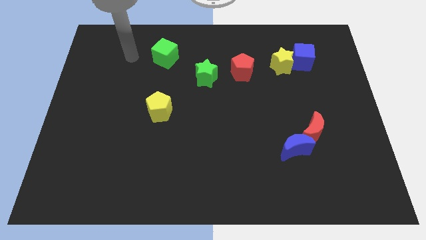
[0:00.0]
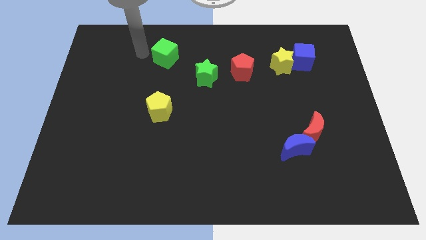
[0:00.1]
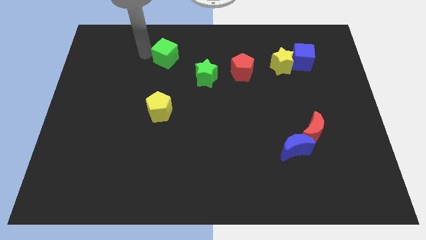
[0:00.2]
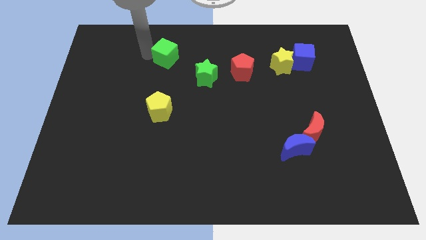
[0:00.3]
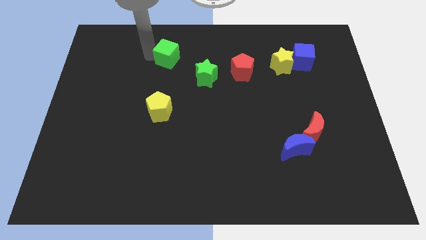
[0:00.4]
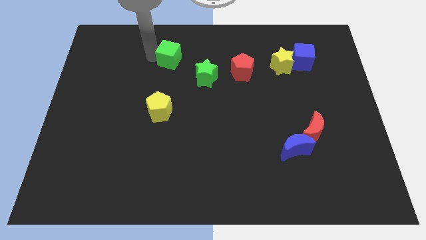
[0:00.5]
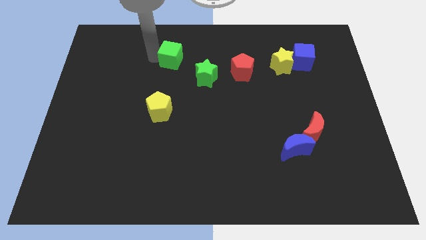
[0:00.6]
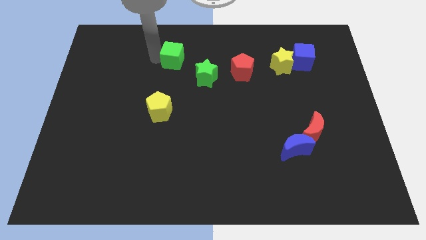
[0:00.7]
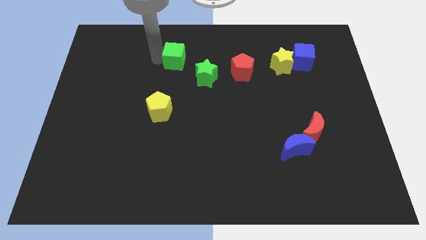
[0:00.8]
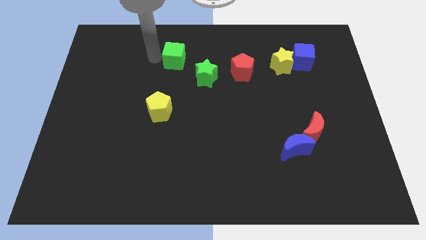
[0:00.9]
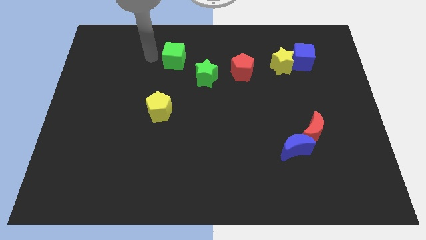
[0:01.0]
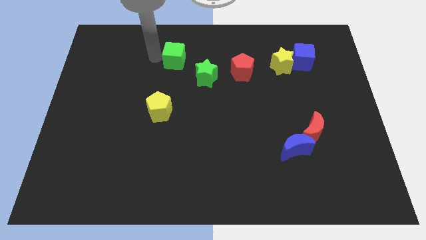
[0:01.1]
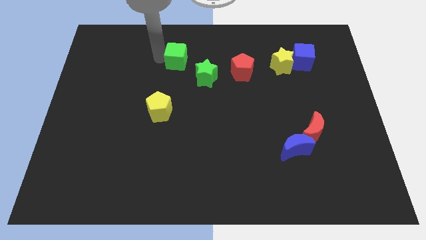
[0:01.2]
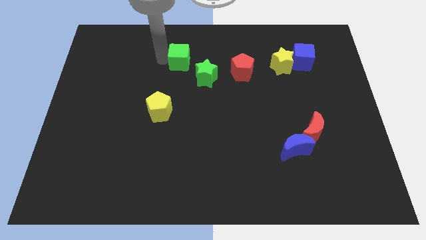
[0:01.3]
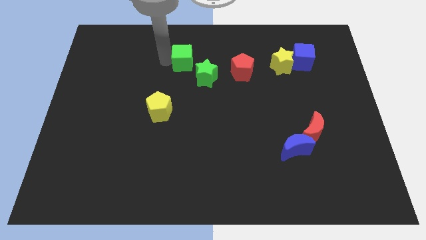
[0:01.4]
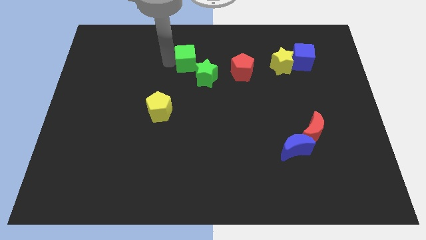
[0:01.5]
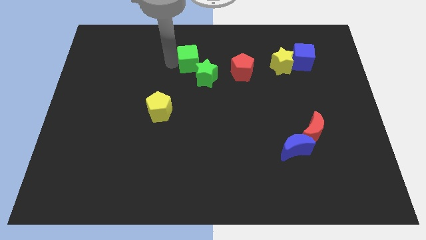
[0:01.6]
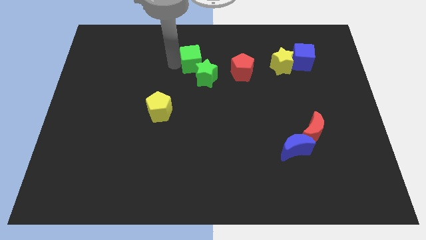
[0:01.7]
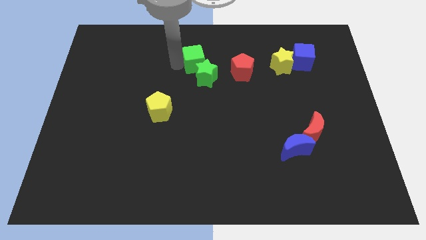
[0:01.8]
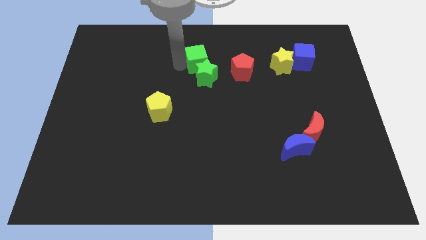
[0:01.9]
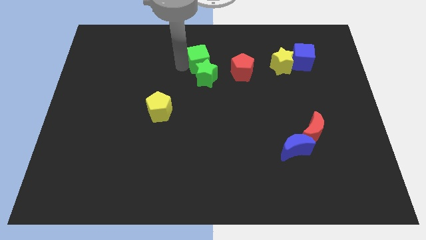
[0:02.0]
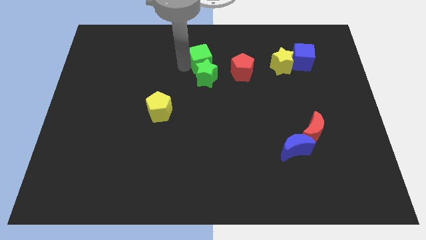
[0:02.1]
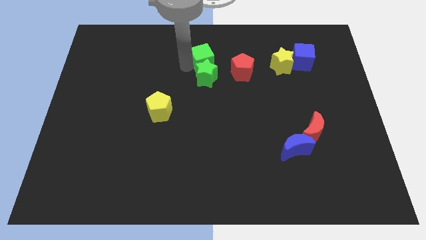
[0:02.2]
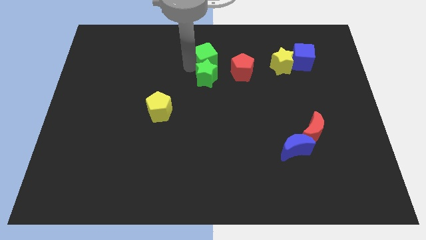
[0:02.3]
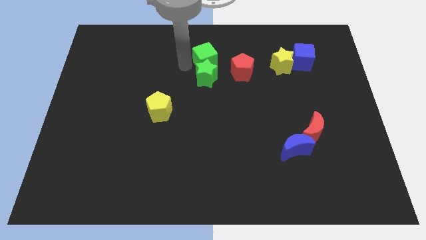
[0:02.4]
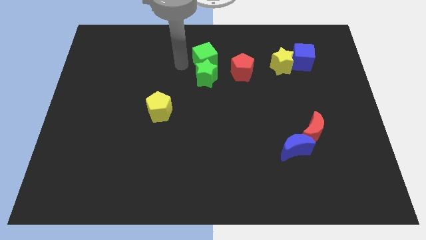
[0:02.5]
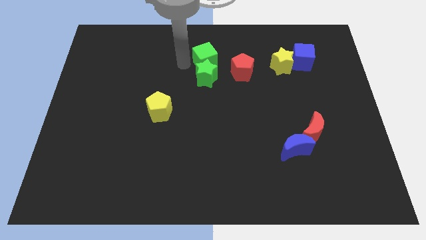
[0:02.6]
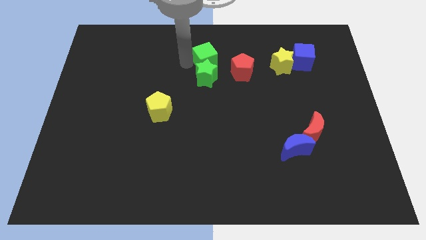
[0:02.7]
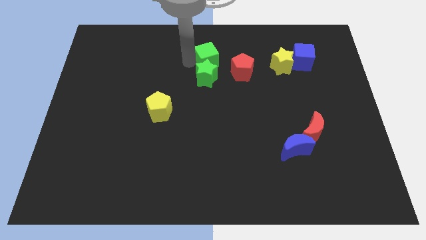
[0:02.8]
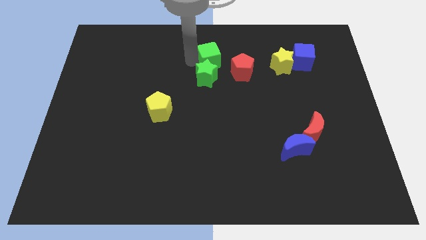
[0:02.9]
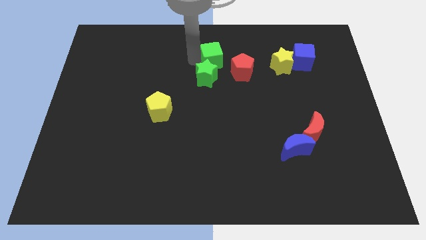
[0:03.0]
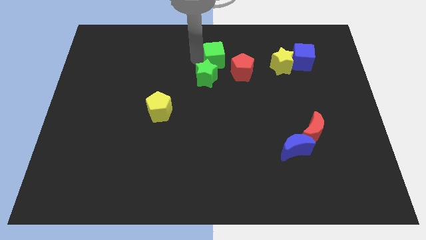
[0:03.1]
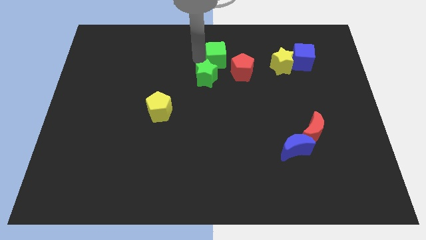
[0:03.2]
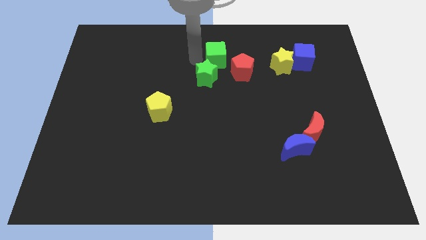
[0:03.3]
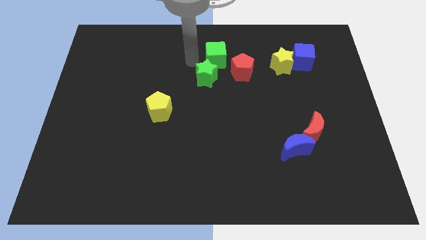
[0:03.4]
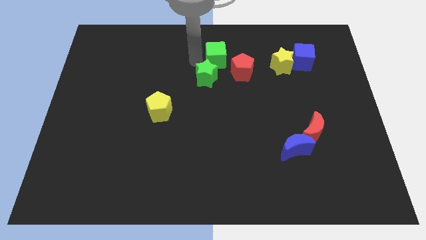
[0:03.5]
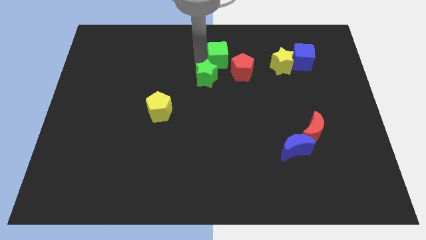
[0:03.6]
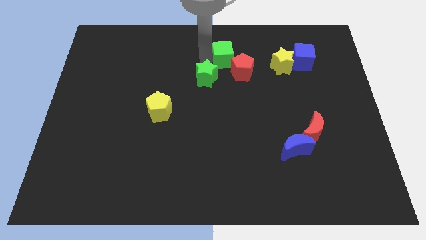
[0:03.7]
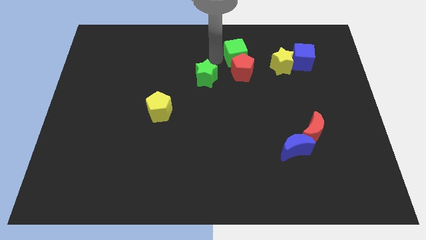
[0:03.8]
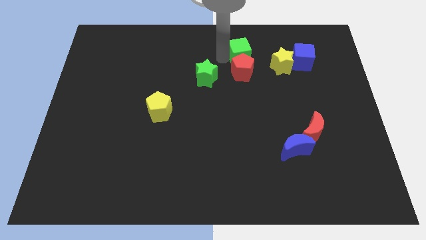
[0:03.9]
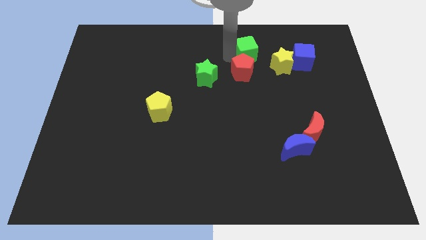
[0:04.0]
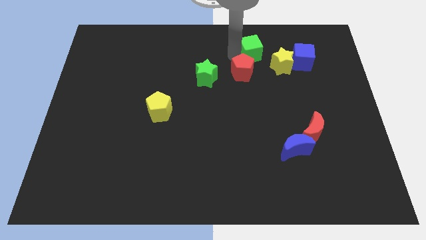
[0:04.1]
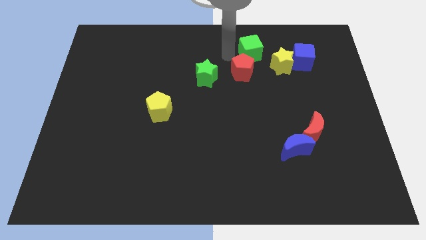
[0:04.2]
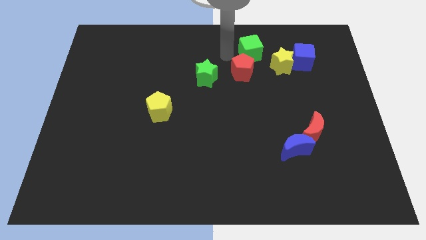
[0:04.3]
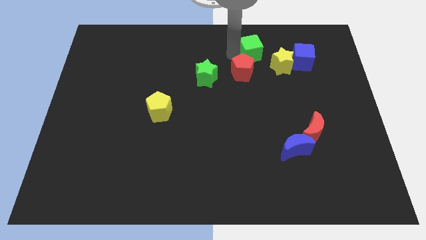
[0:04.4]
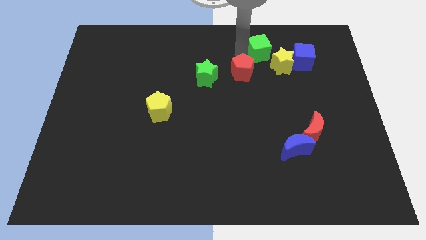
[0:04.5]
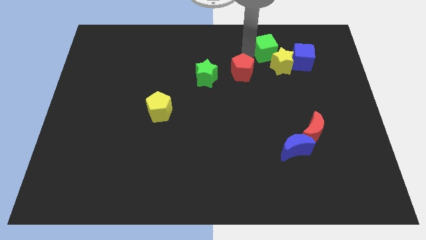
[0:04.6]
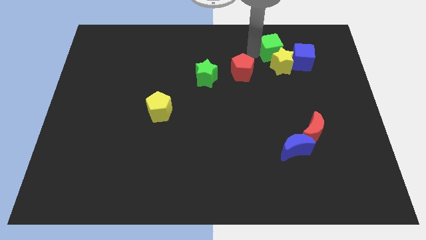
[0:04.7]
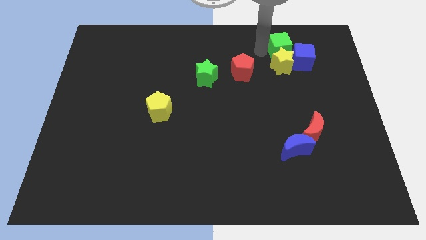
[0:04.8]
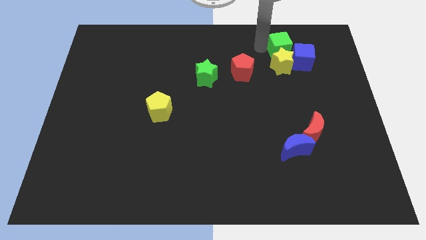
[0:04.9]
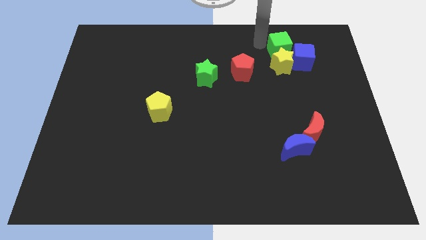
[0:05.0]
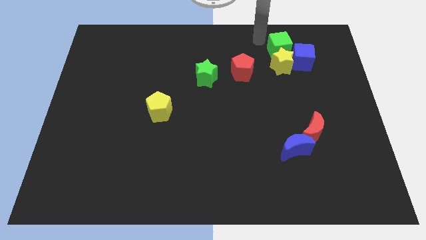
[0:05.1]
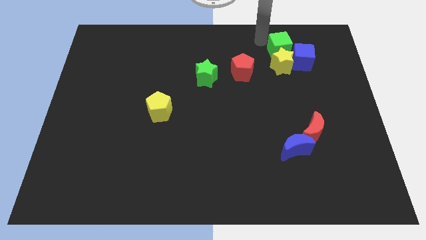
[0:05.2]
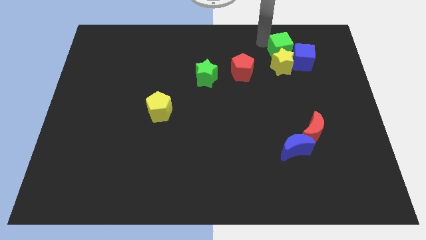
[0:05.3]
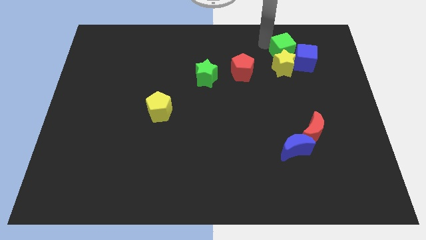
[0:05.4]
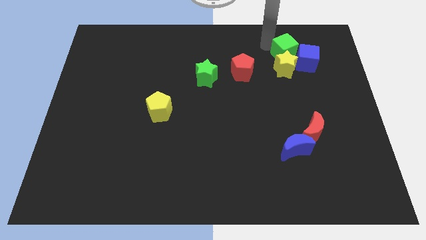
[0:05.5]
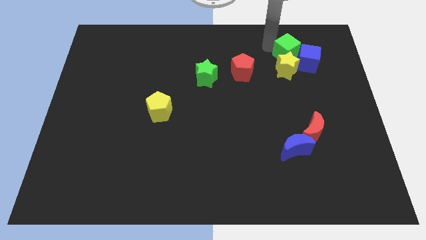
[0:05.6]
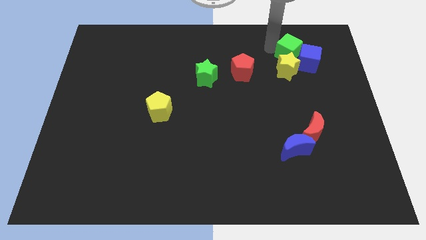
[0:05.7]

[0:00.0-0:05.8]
slide the green cube to the blue cube

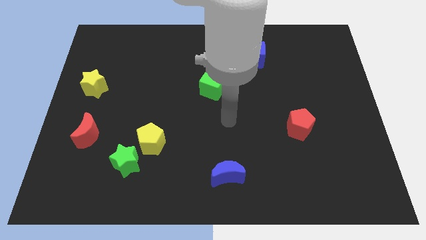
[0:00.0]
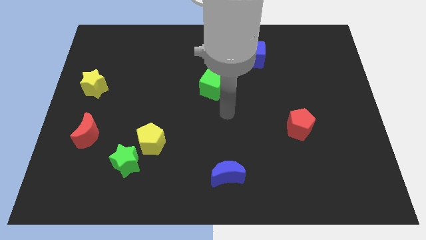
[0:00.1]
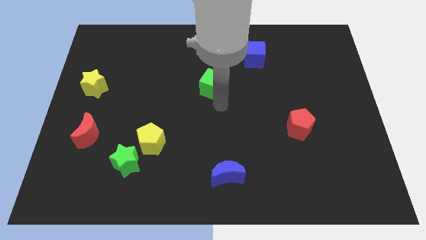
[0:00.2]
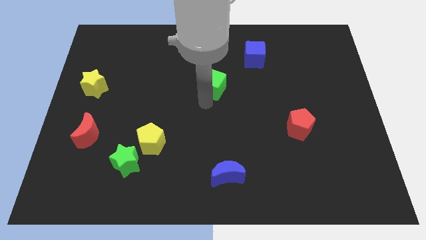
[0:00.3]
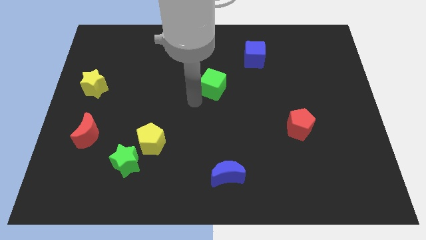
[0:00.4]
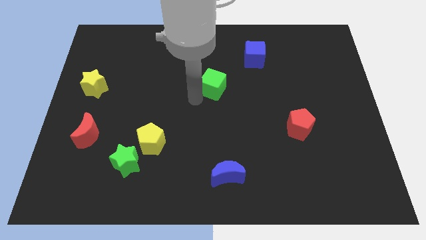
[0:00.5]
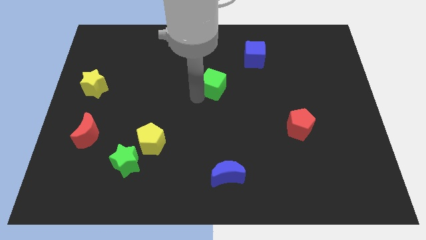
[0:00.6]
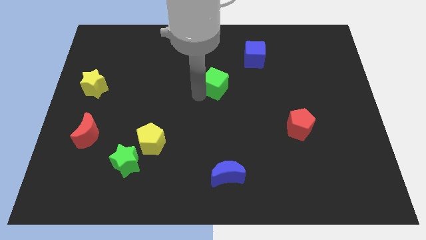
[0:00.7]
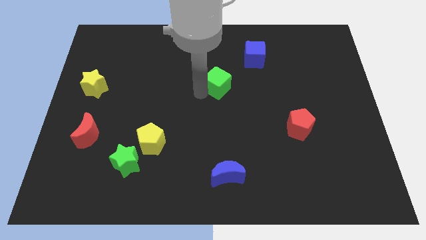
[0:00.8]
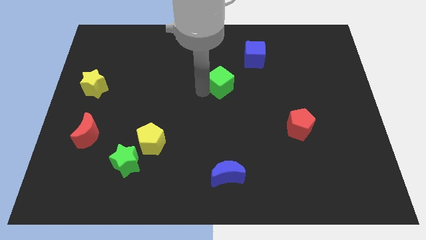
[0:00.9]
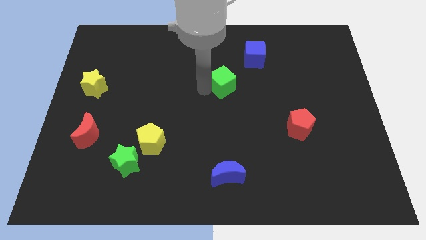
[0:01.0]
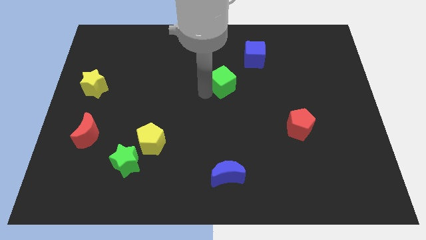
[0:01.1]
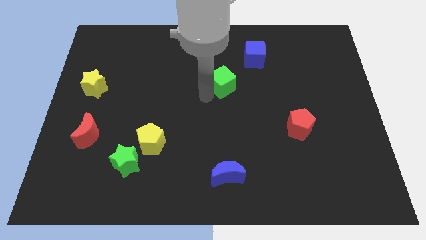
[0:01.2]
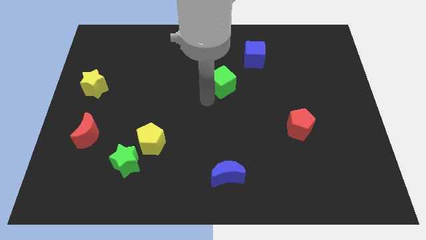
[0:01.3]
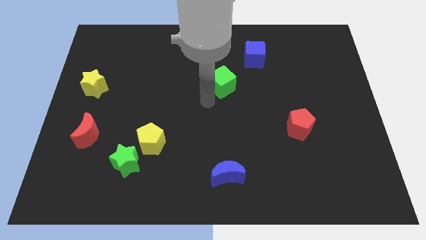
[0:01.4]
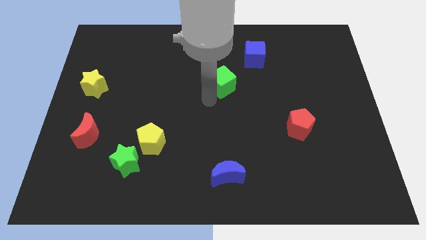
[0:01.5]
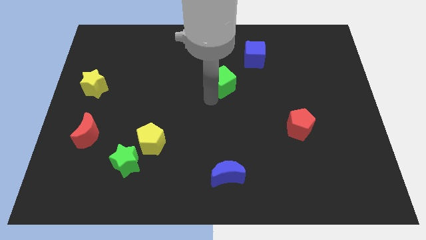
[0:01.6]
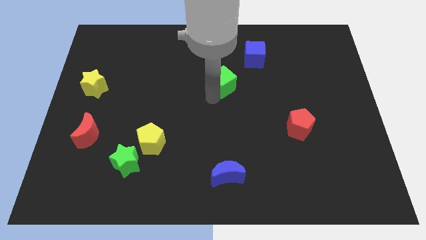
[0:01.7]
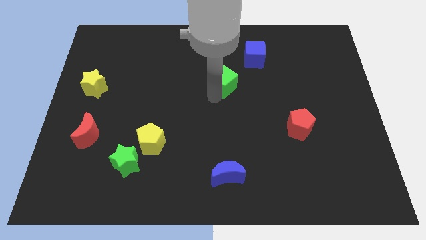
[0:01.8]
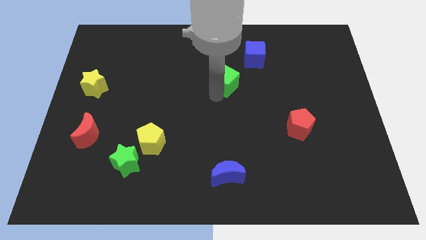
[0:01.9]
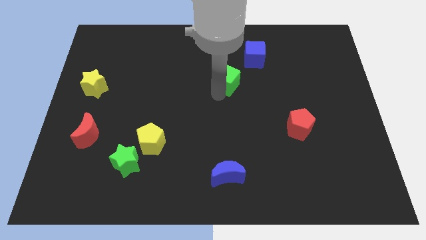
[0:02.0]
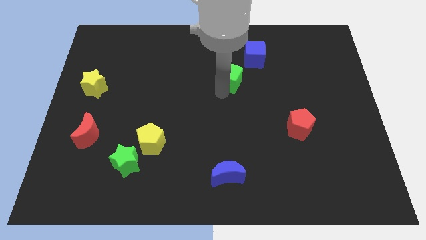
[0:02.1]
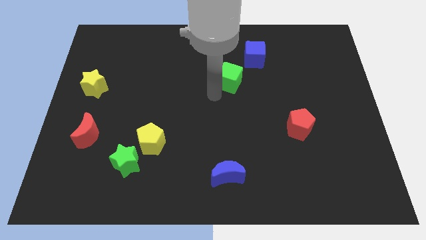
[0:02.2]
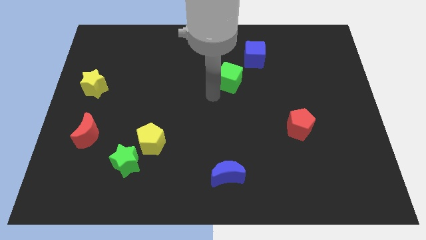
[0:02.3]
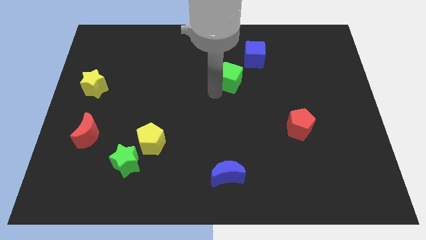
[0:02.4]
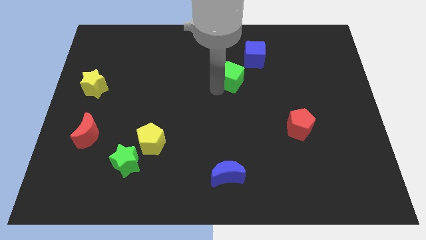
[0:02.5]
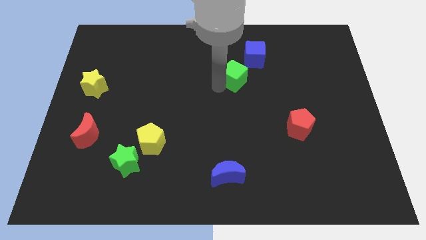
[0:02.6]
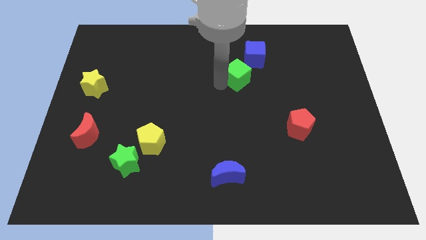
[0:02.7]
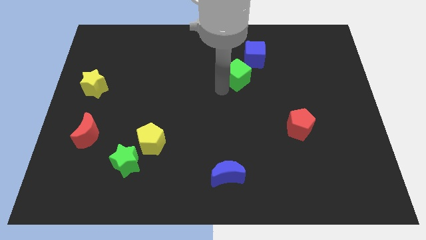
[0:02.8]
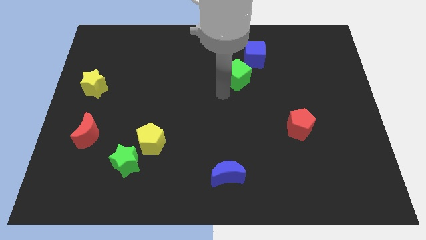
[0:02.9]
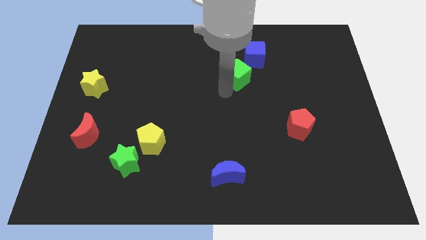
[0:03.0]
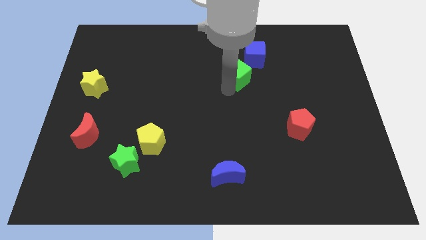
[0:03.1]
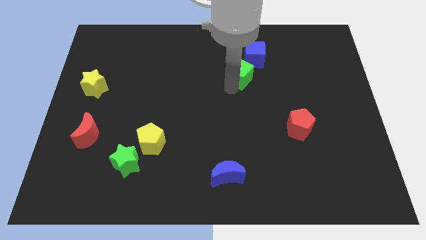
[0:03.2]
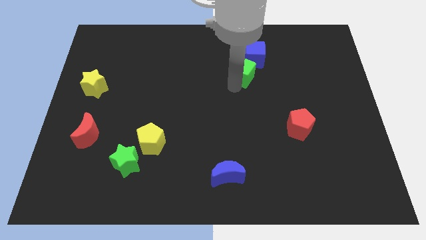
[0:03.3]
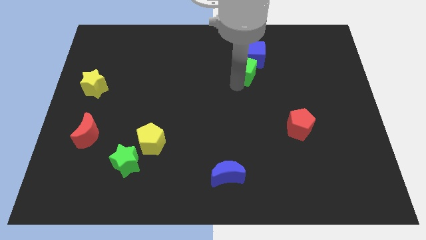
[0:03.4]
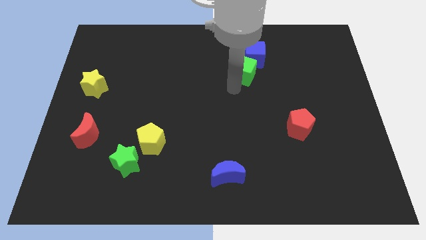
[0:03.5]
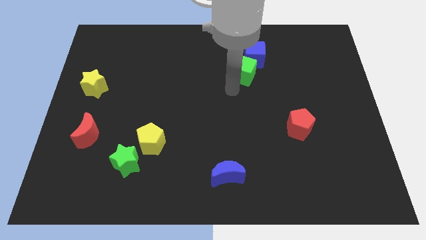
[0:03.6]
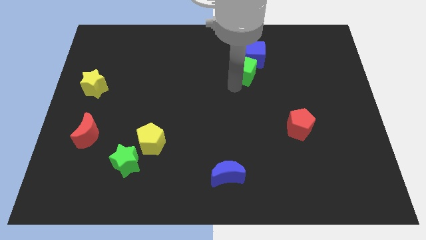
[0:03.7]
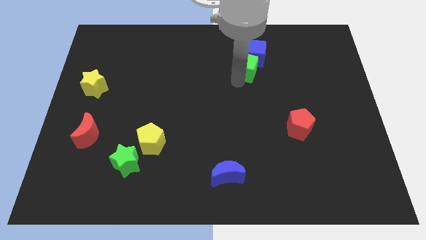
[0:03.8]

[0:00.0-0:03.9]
put the green cube to the blue cube
